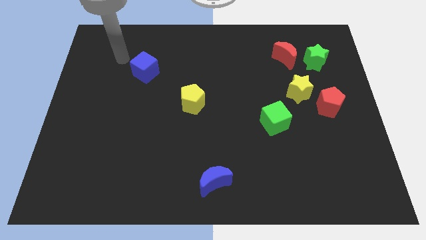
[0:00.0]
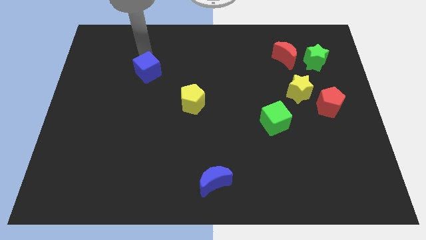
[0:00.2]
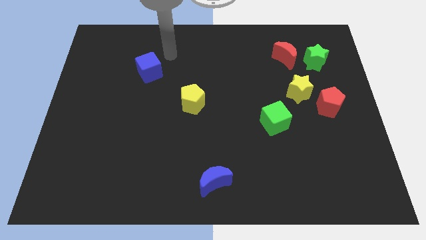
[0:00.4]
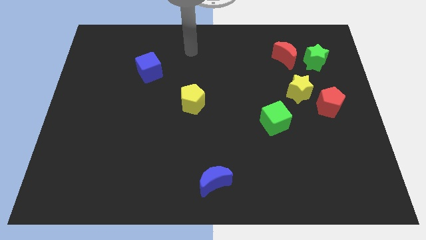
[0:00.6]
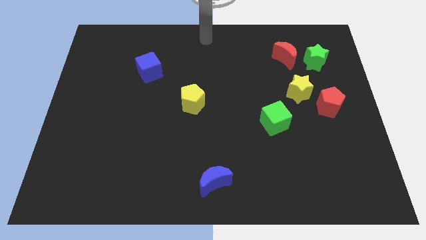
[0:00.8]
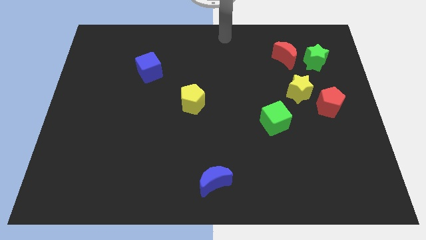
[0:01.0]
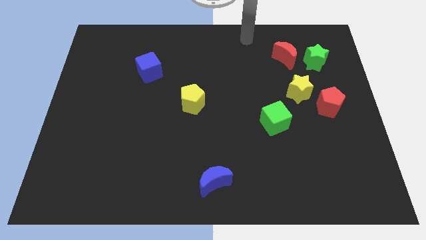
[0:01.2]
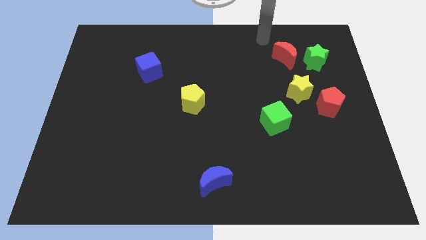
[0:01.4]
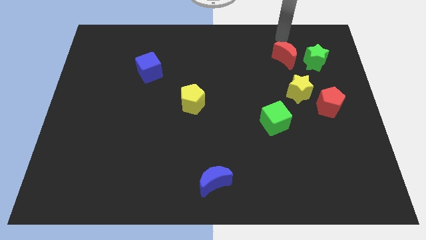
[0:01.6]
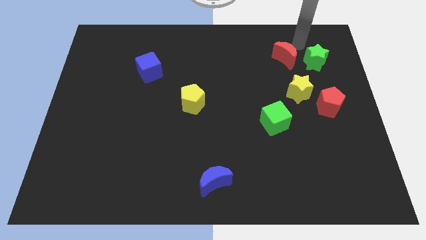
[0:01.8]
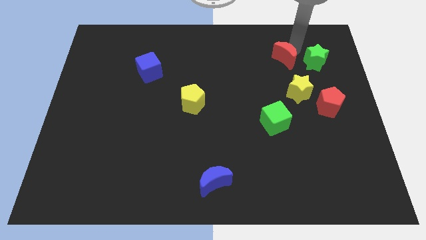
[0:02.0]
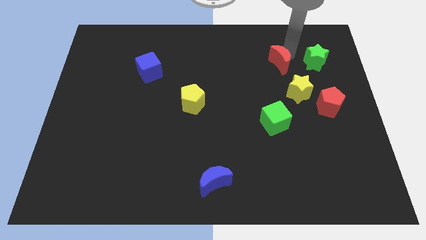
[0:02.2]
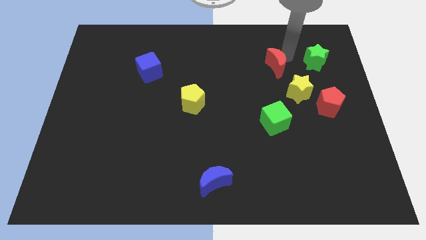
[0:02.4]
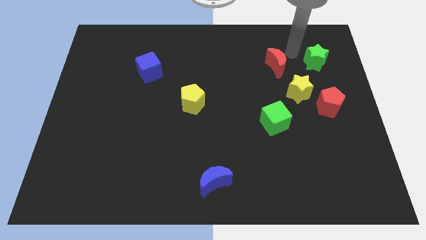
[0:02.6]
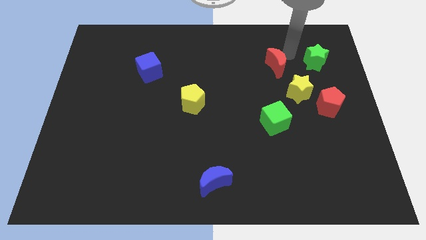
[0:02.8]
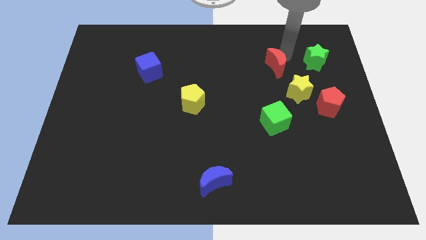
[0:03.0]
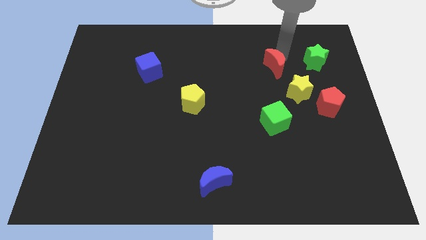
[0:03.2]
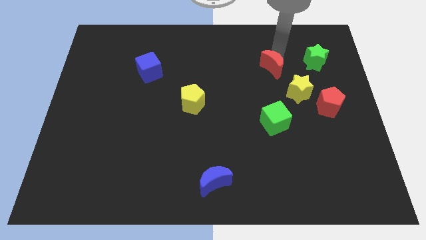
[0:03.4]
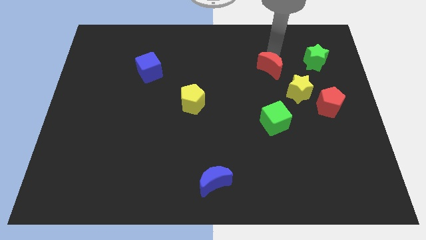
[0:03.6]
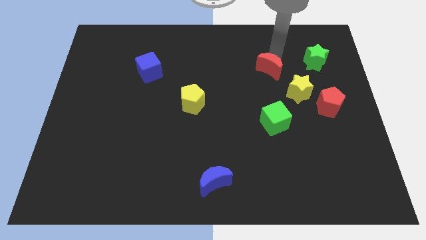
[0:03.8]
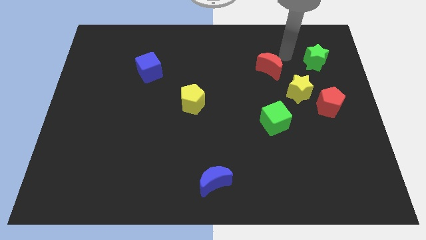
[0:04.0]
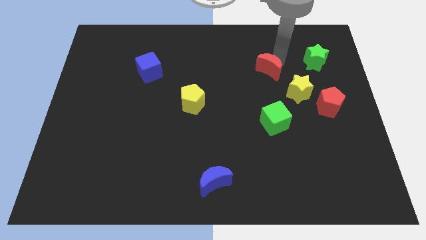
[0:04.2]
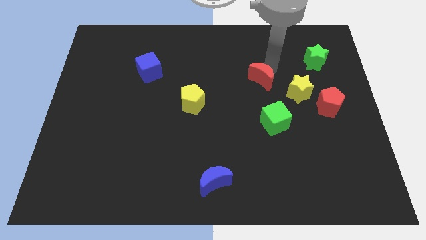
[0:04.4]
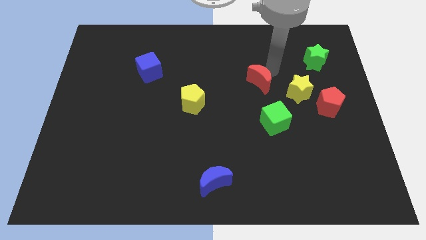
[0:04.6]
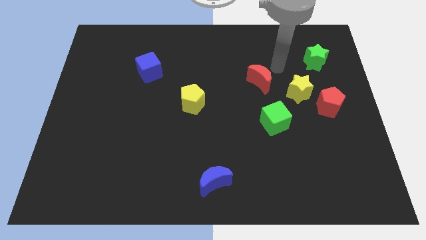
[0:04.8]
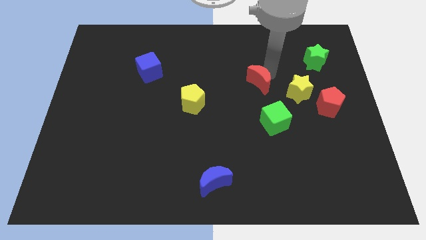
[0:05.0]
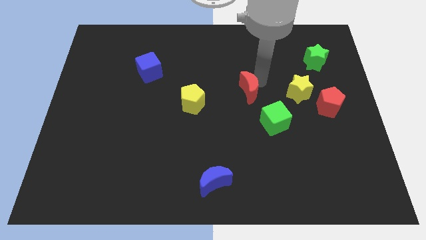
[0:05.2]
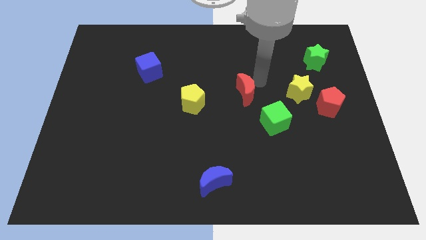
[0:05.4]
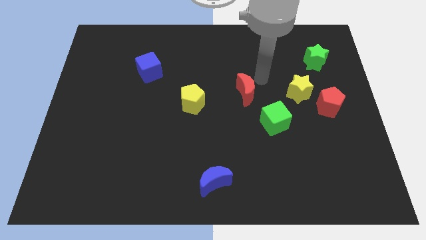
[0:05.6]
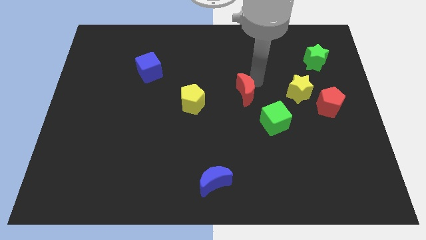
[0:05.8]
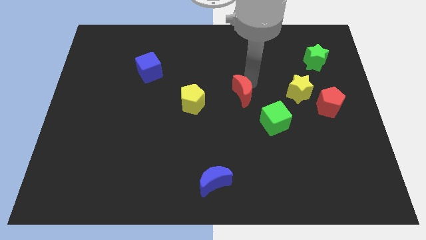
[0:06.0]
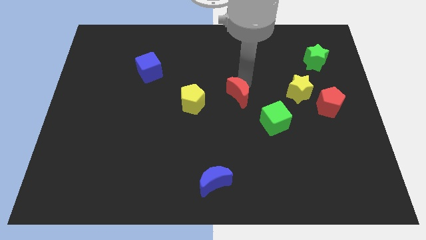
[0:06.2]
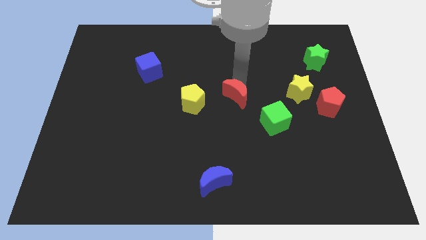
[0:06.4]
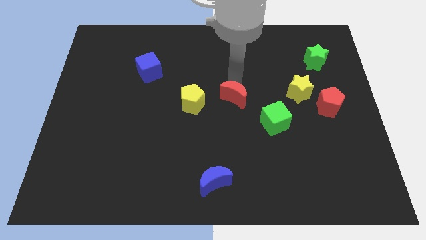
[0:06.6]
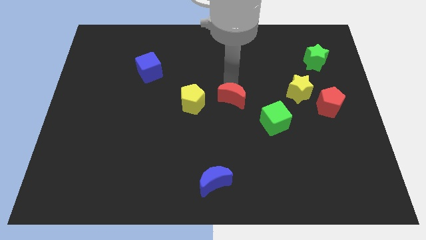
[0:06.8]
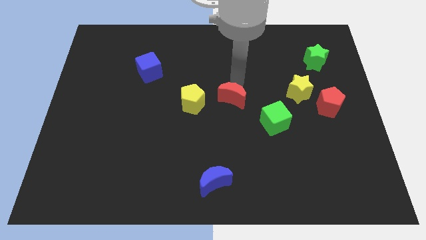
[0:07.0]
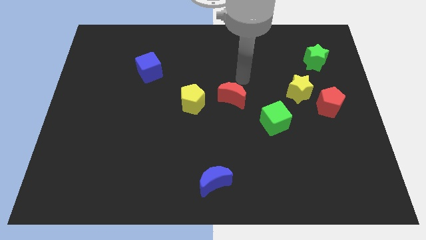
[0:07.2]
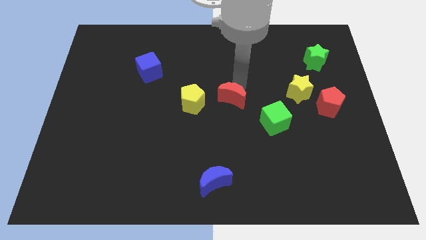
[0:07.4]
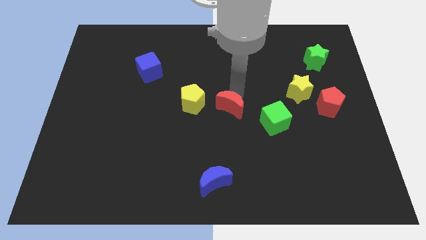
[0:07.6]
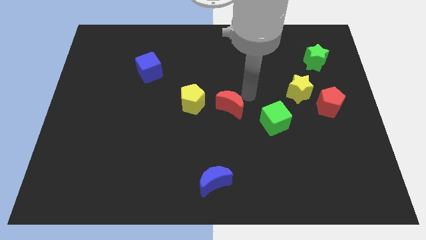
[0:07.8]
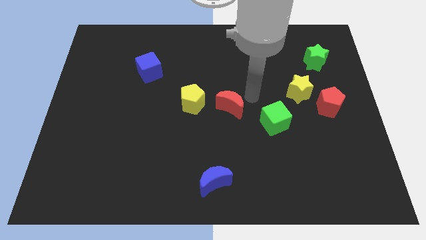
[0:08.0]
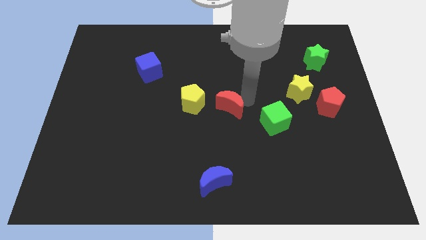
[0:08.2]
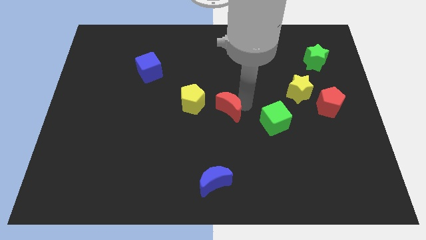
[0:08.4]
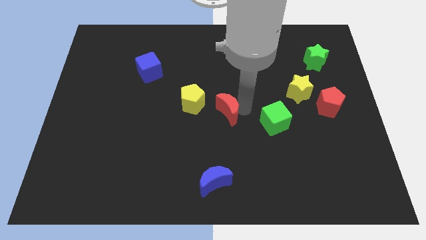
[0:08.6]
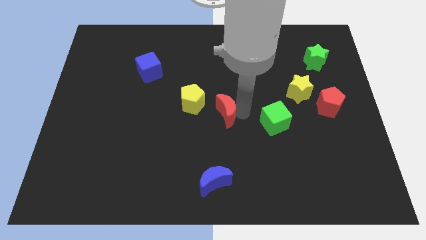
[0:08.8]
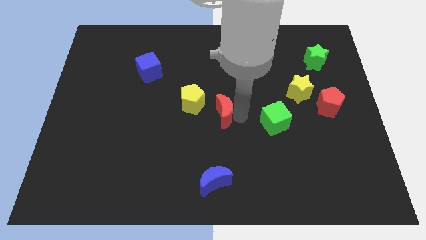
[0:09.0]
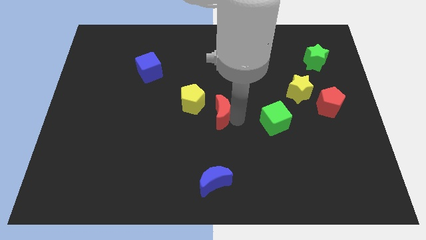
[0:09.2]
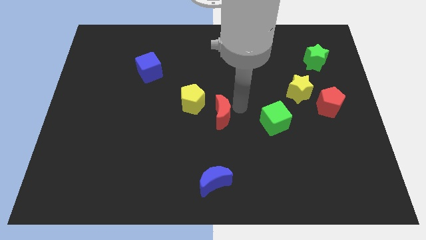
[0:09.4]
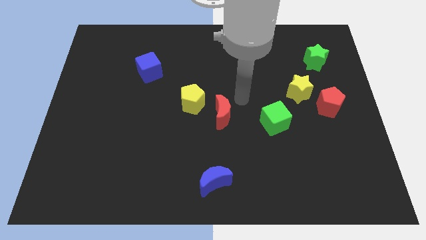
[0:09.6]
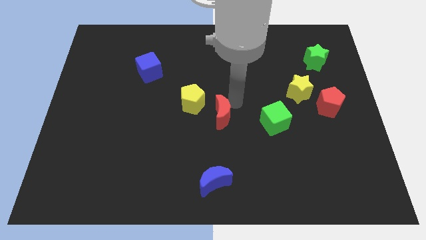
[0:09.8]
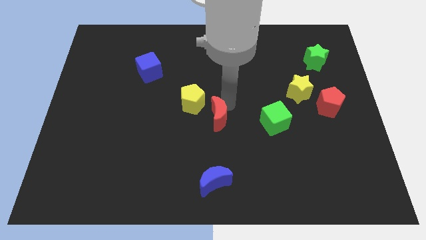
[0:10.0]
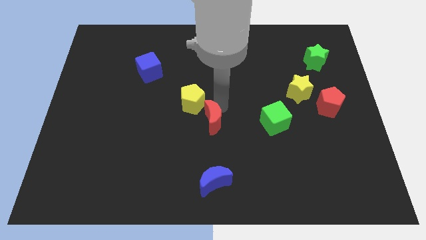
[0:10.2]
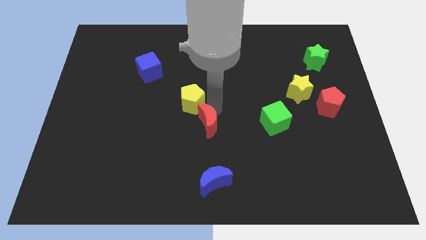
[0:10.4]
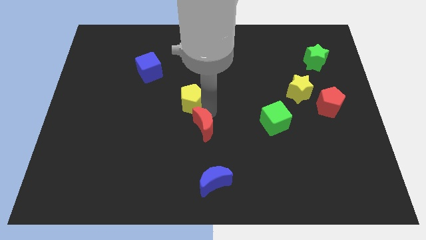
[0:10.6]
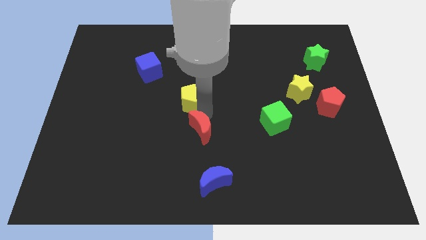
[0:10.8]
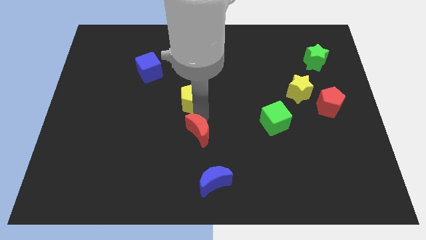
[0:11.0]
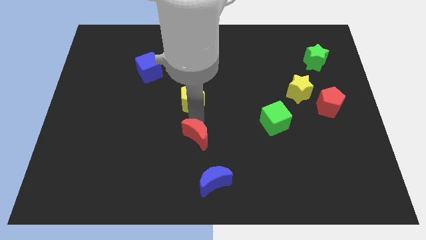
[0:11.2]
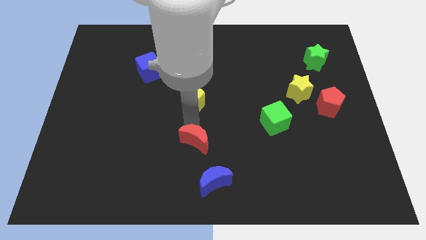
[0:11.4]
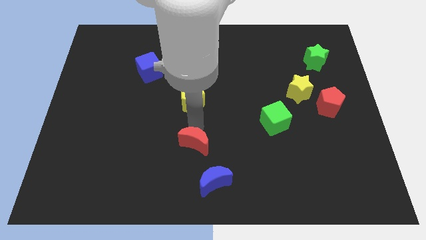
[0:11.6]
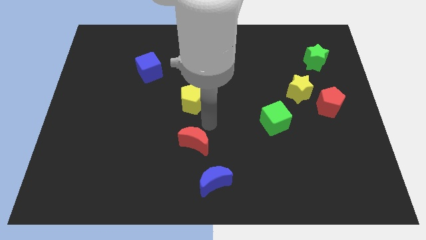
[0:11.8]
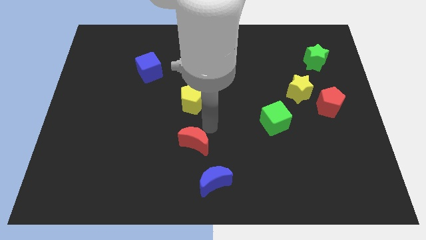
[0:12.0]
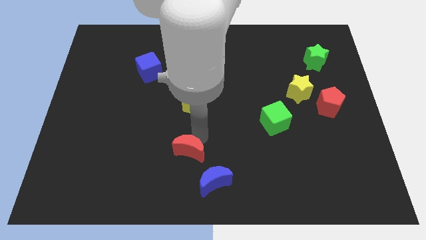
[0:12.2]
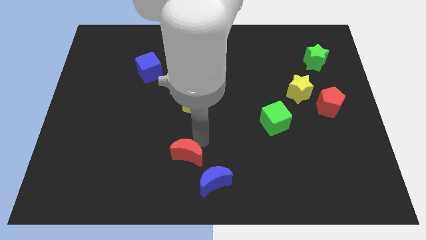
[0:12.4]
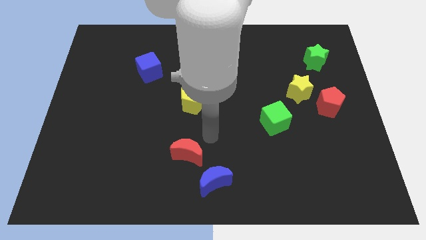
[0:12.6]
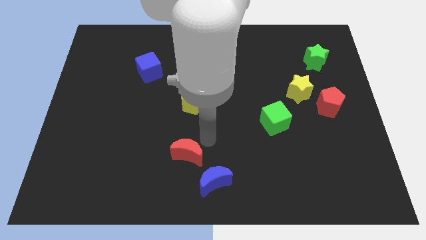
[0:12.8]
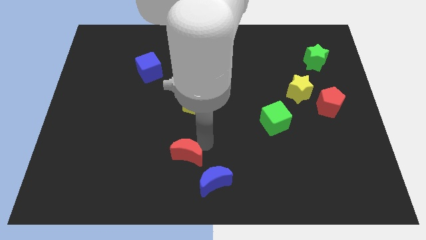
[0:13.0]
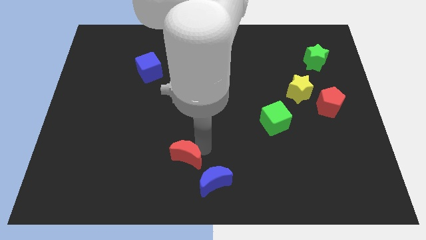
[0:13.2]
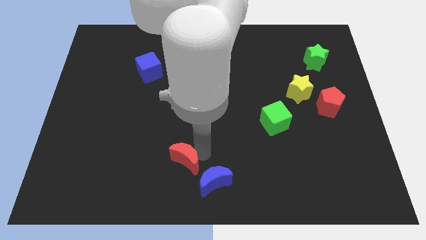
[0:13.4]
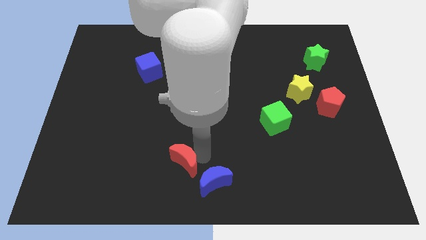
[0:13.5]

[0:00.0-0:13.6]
move the red moon just left of the blue moon
